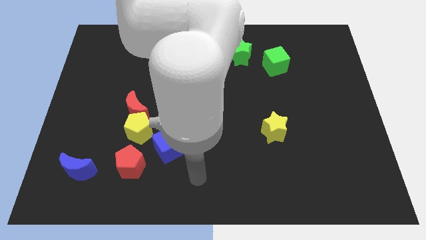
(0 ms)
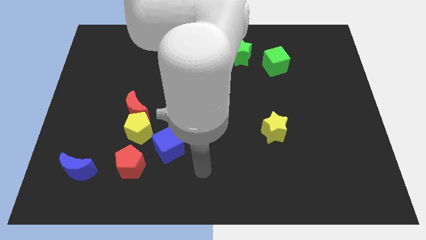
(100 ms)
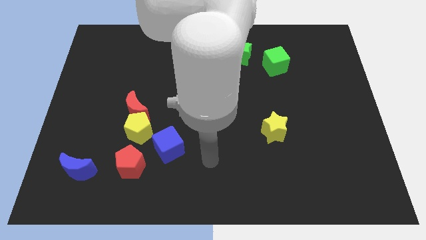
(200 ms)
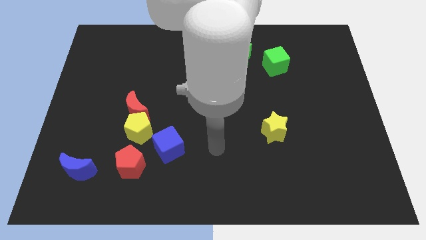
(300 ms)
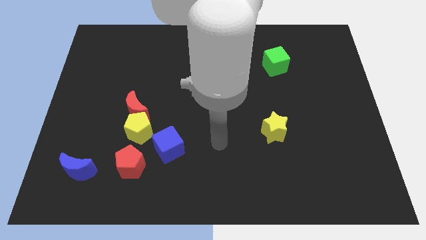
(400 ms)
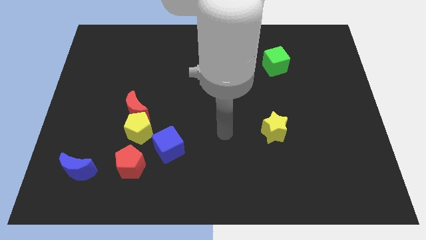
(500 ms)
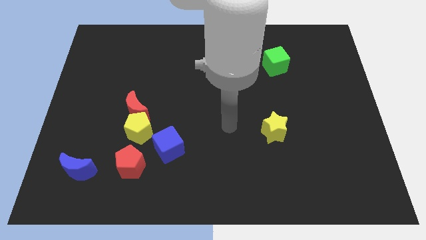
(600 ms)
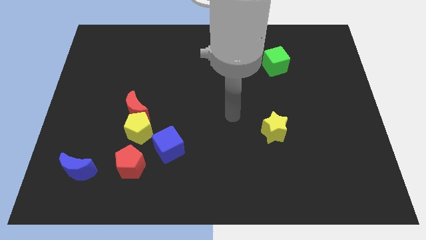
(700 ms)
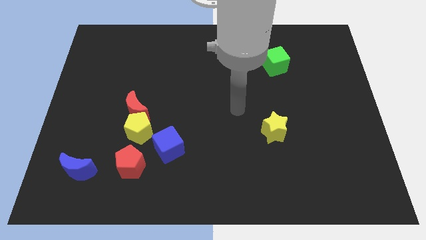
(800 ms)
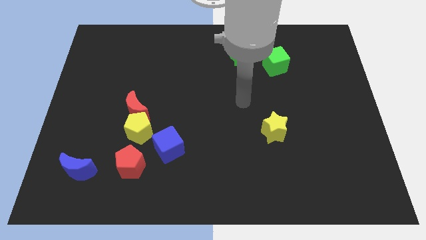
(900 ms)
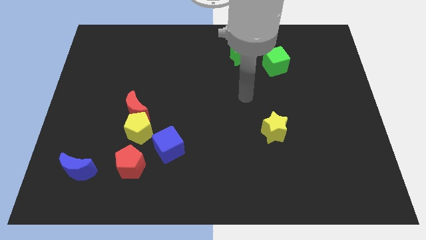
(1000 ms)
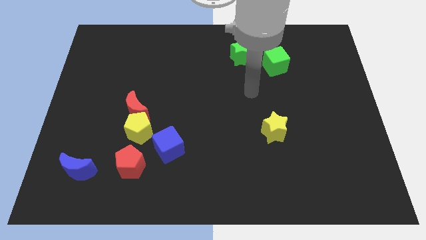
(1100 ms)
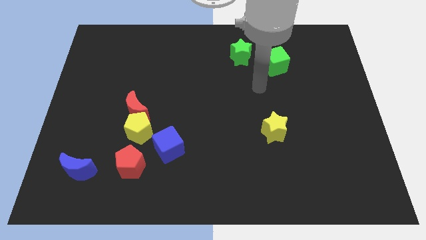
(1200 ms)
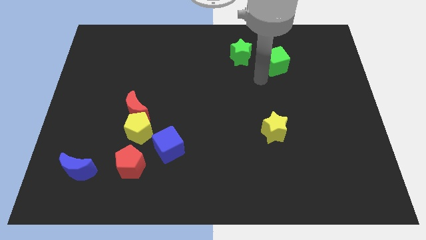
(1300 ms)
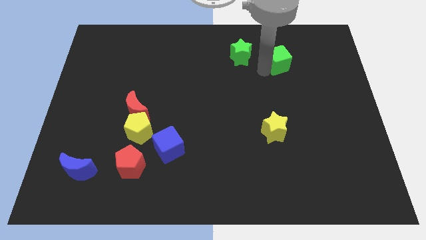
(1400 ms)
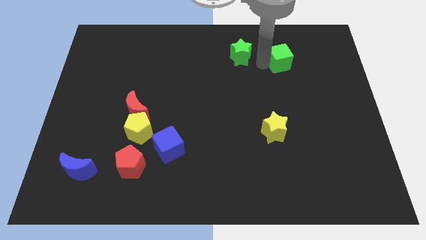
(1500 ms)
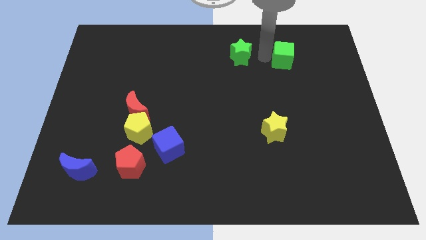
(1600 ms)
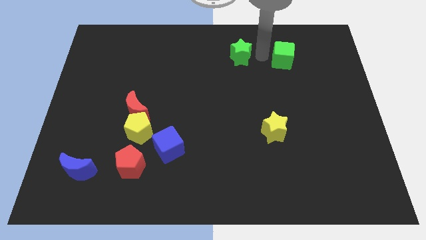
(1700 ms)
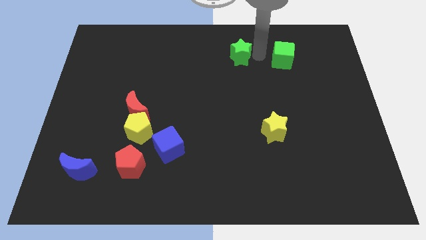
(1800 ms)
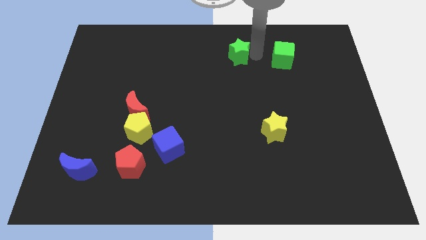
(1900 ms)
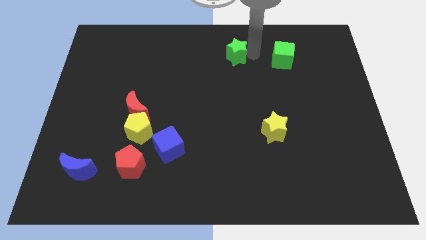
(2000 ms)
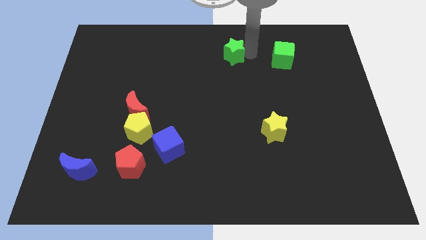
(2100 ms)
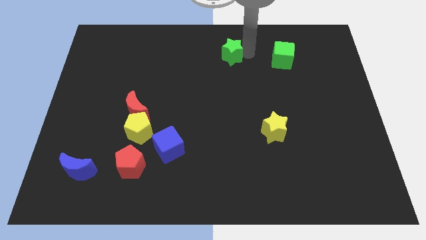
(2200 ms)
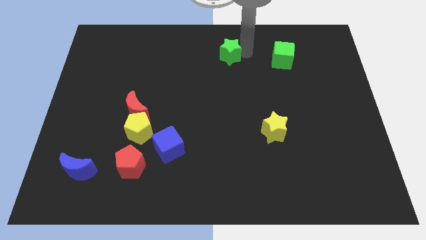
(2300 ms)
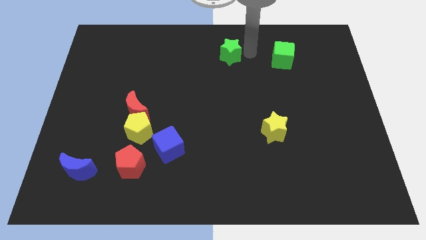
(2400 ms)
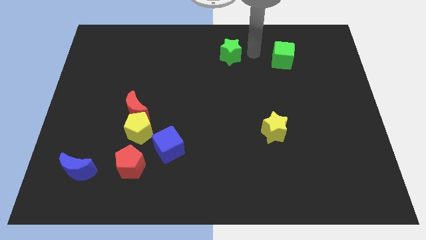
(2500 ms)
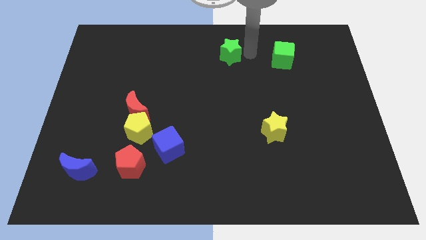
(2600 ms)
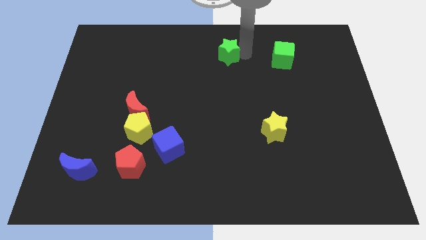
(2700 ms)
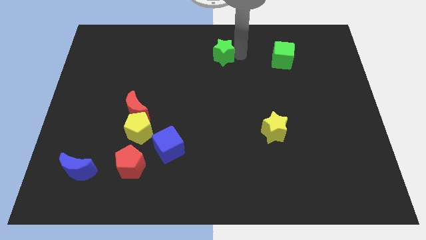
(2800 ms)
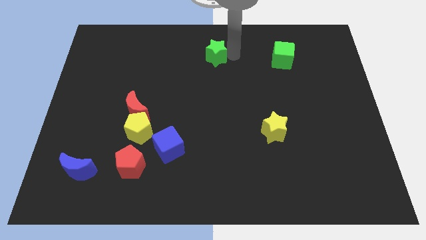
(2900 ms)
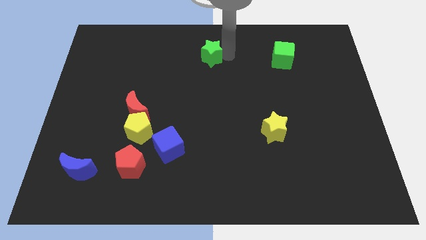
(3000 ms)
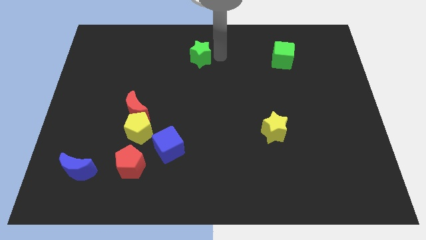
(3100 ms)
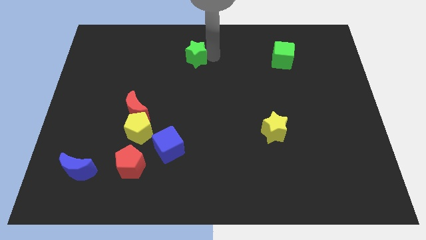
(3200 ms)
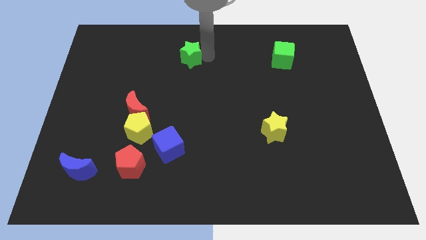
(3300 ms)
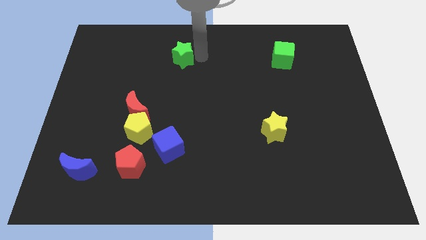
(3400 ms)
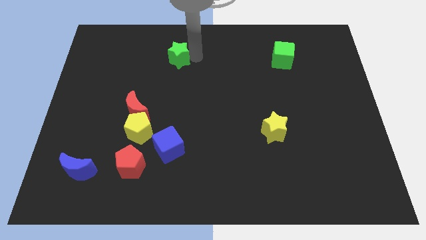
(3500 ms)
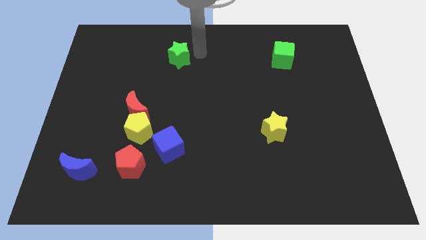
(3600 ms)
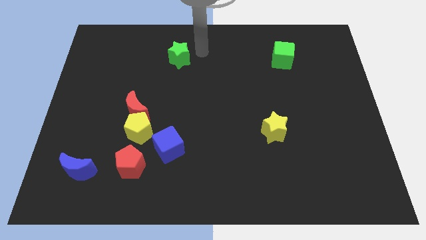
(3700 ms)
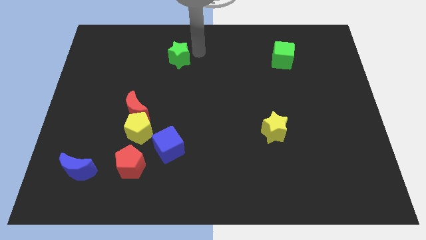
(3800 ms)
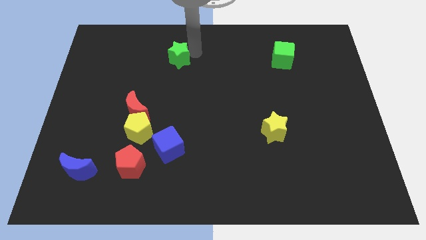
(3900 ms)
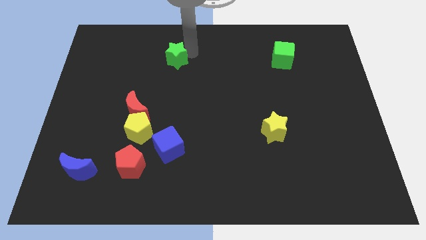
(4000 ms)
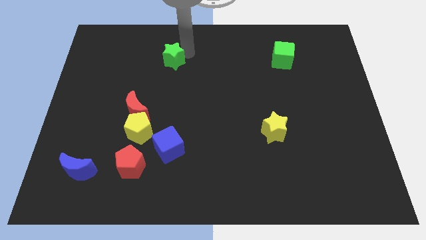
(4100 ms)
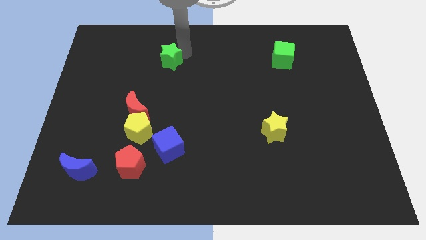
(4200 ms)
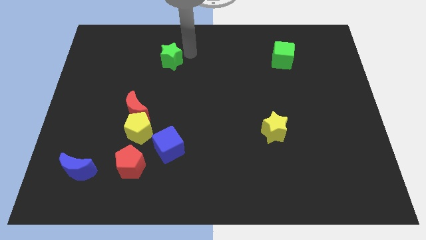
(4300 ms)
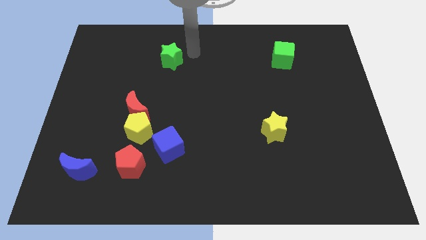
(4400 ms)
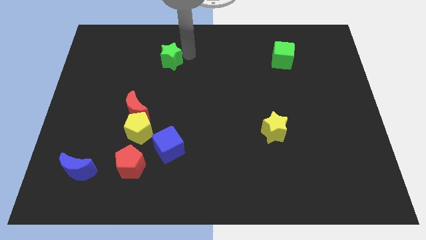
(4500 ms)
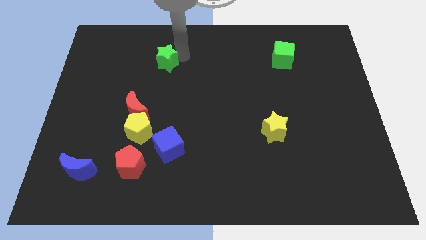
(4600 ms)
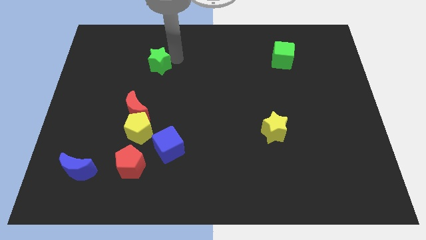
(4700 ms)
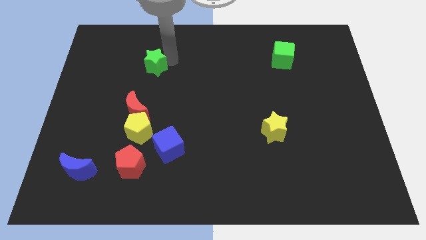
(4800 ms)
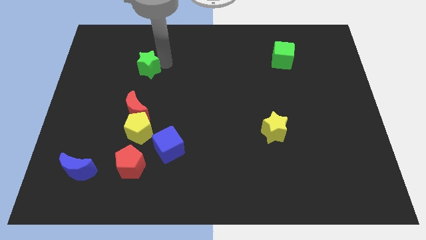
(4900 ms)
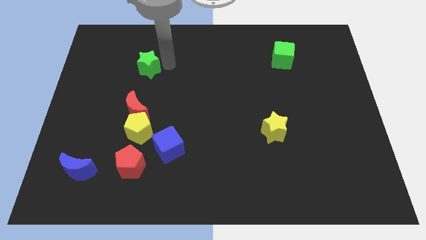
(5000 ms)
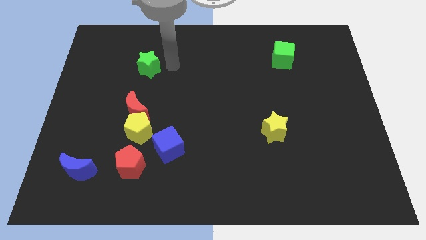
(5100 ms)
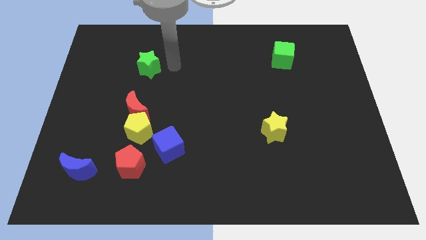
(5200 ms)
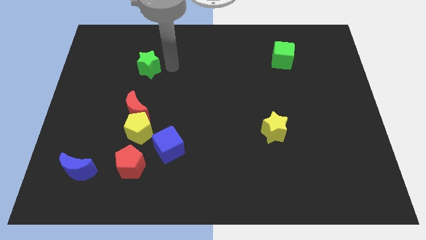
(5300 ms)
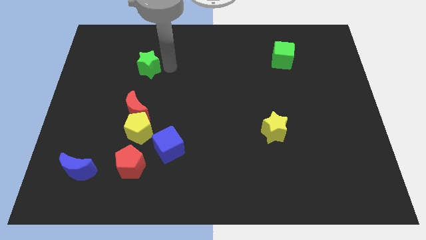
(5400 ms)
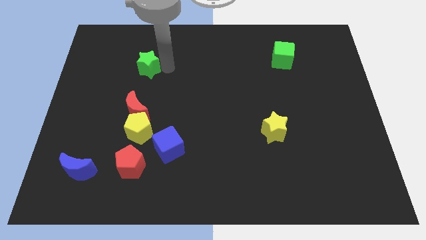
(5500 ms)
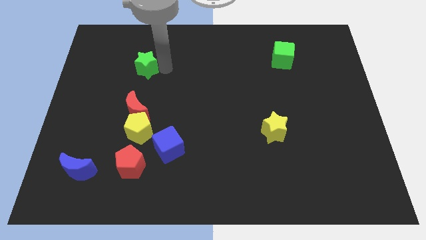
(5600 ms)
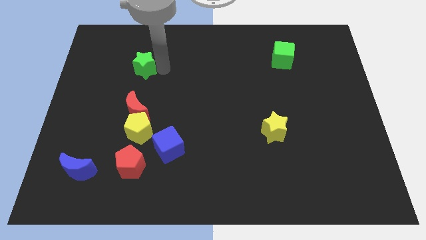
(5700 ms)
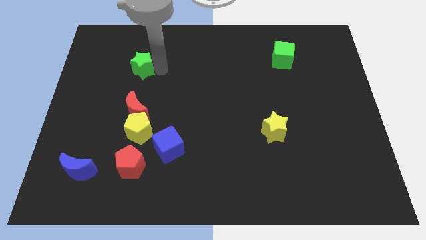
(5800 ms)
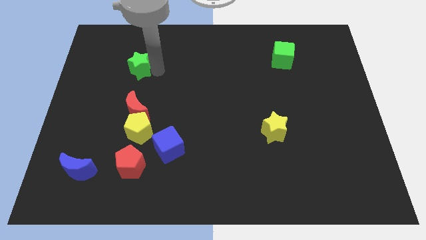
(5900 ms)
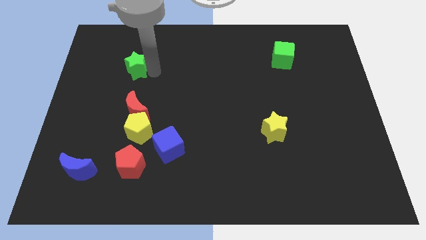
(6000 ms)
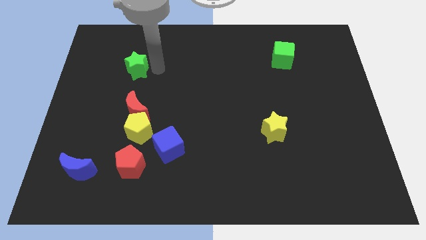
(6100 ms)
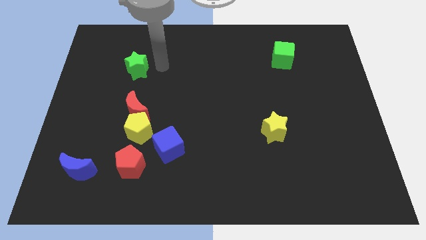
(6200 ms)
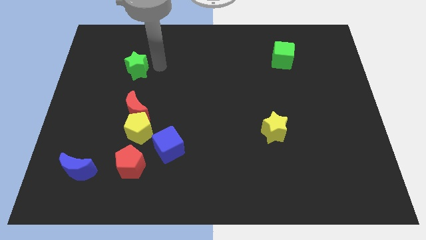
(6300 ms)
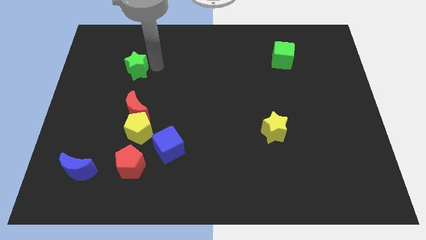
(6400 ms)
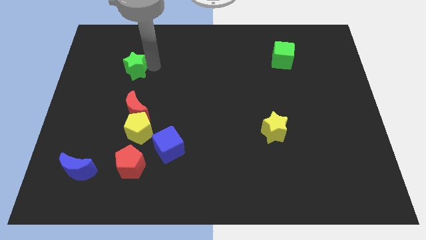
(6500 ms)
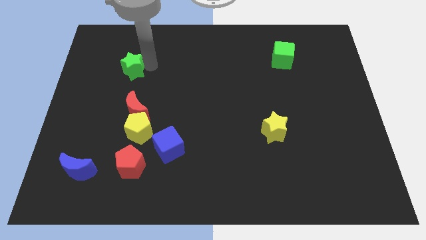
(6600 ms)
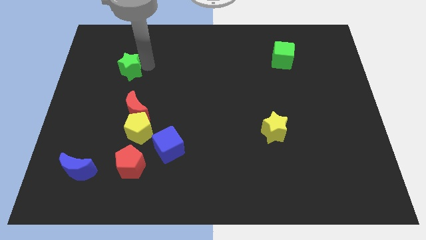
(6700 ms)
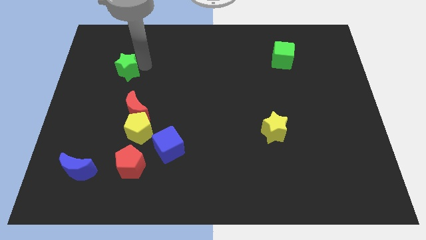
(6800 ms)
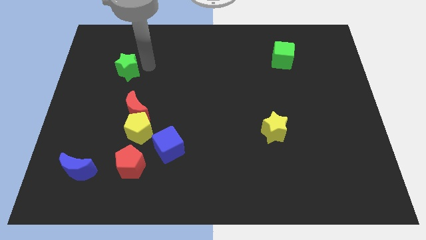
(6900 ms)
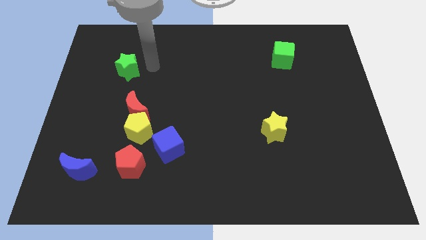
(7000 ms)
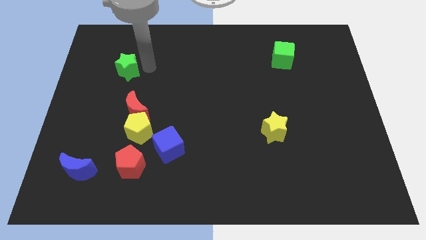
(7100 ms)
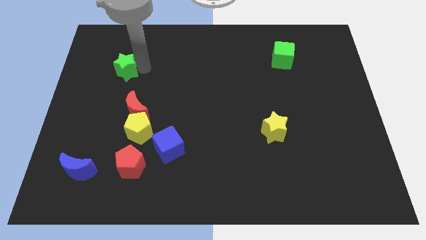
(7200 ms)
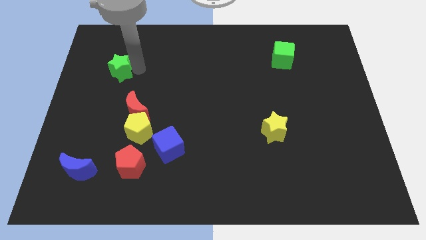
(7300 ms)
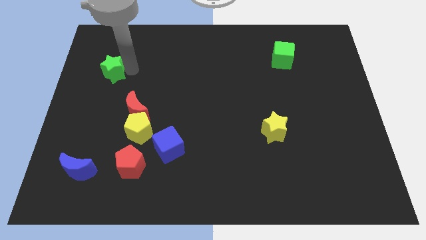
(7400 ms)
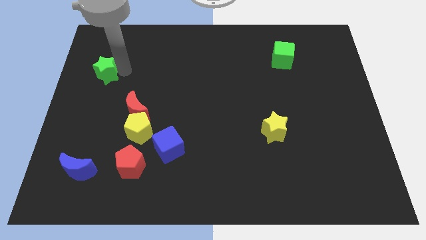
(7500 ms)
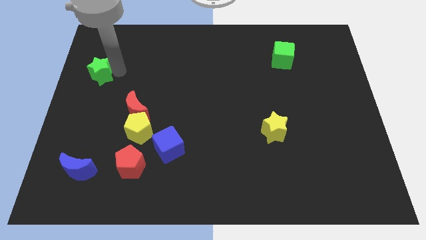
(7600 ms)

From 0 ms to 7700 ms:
put the green star to the left side
